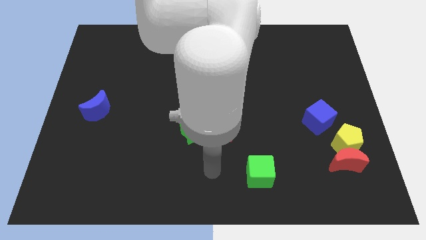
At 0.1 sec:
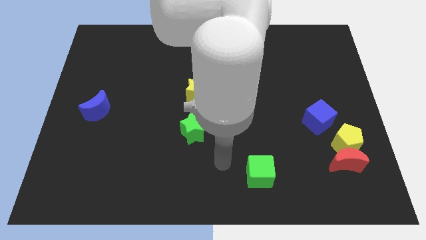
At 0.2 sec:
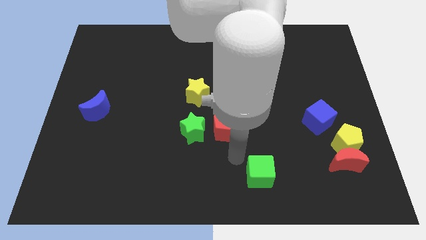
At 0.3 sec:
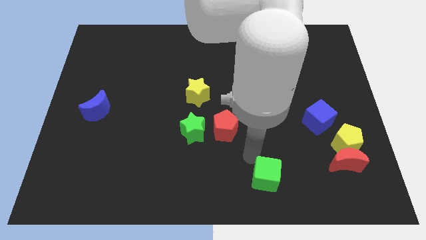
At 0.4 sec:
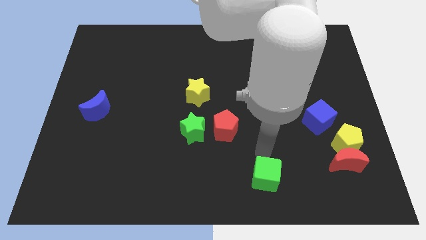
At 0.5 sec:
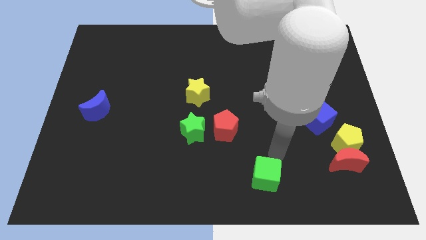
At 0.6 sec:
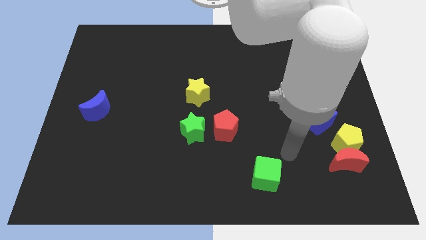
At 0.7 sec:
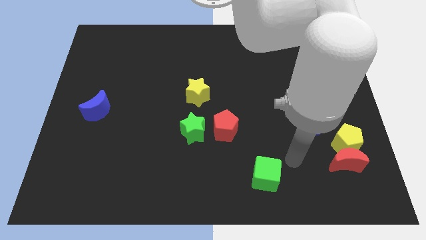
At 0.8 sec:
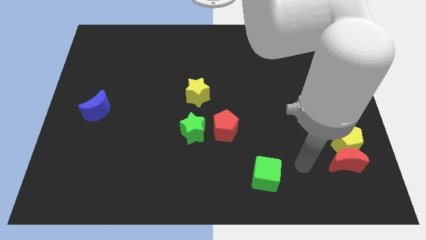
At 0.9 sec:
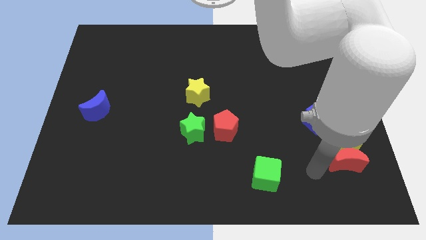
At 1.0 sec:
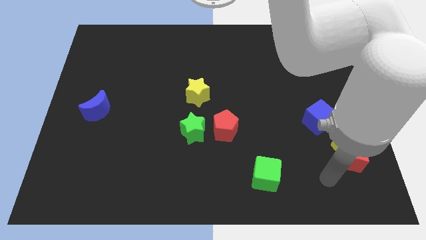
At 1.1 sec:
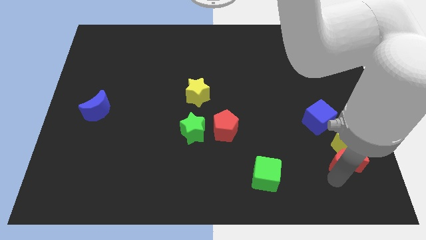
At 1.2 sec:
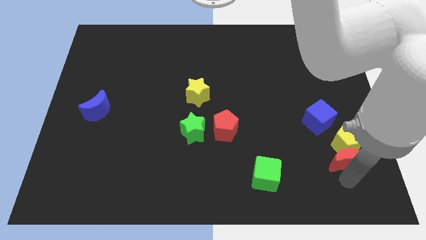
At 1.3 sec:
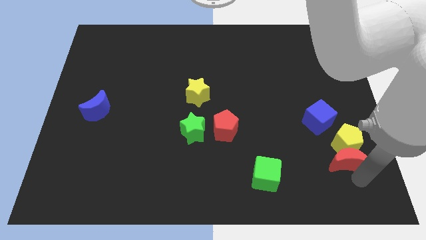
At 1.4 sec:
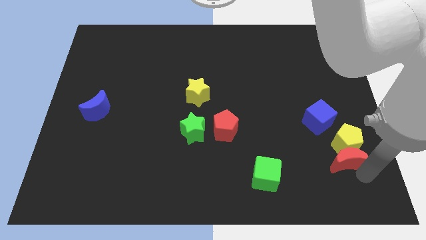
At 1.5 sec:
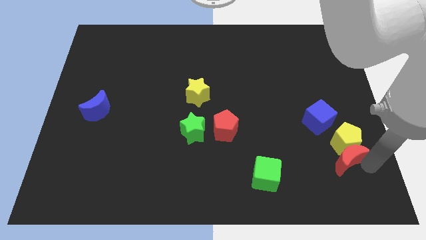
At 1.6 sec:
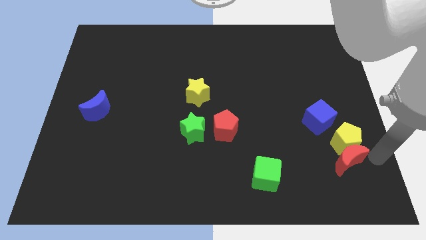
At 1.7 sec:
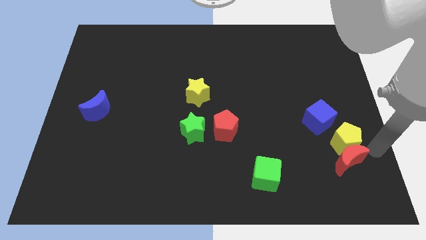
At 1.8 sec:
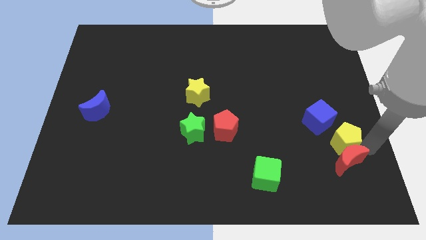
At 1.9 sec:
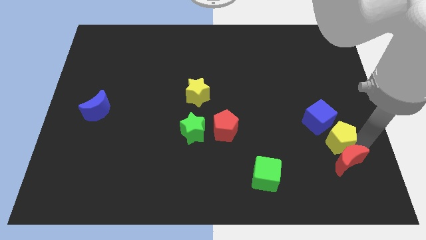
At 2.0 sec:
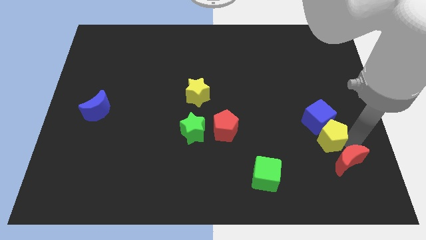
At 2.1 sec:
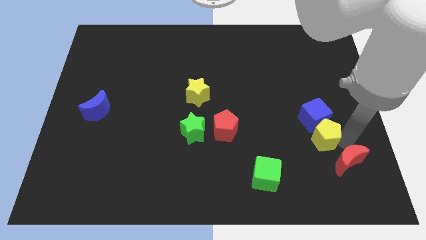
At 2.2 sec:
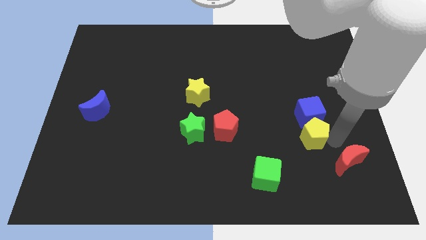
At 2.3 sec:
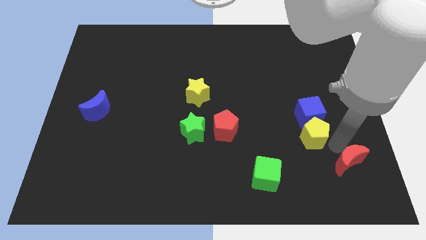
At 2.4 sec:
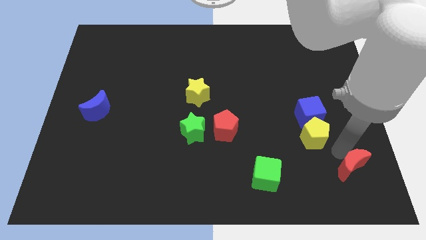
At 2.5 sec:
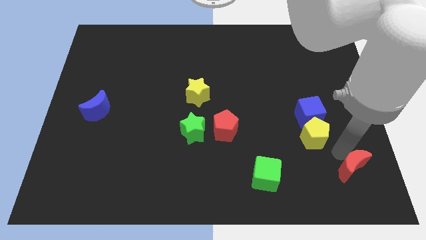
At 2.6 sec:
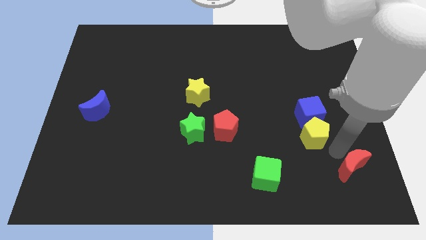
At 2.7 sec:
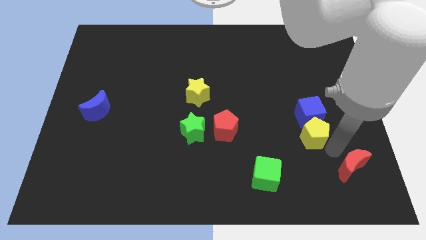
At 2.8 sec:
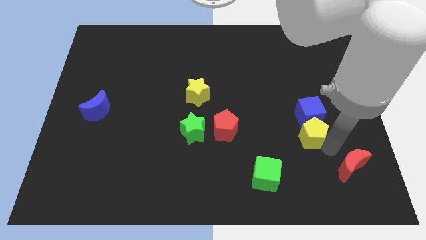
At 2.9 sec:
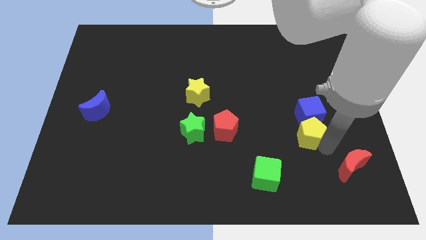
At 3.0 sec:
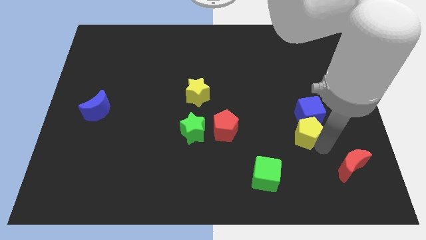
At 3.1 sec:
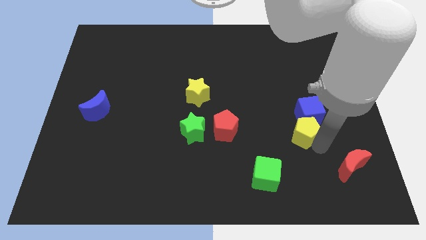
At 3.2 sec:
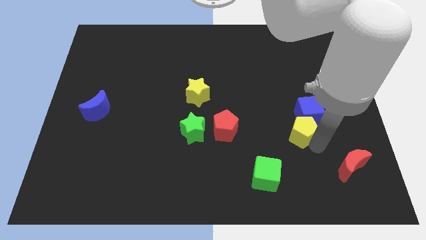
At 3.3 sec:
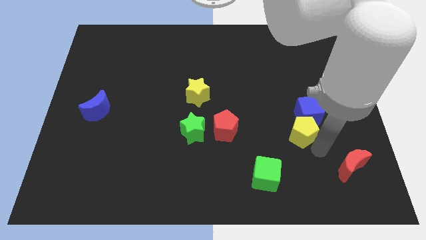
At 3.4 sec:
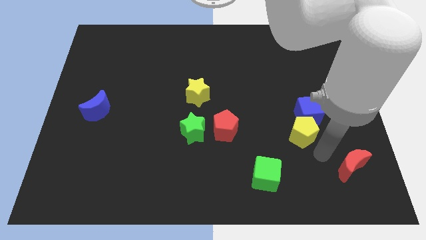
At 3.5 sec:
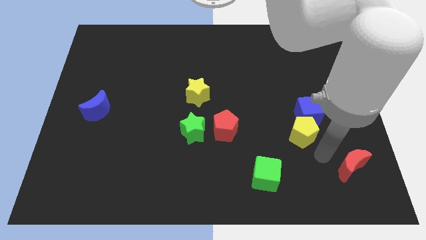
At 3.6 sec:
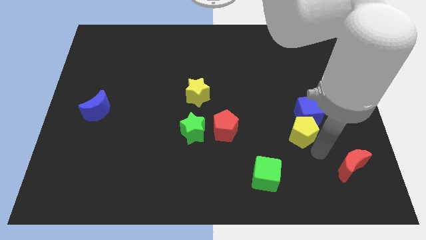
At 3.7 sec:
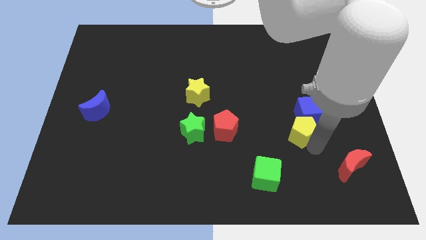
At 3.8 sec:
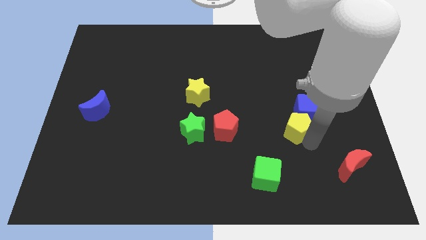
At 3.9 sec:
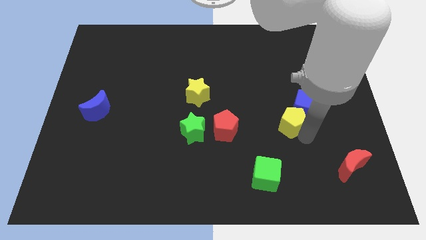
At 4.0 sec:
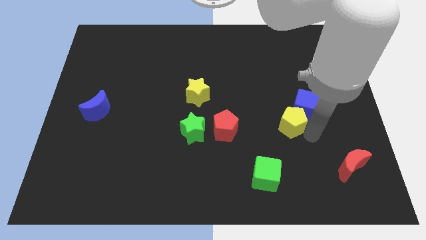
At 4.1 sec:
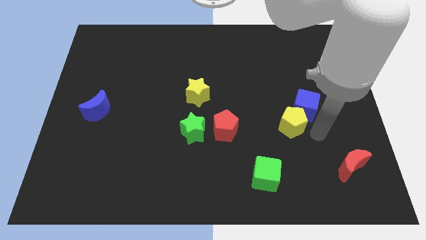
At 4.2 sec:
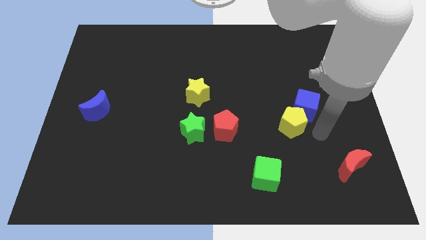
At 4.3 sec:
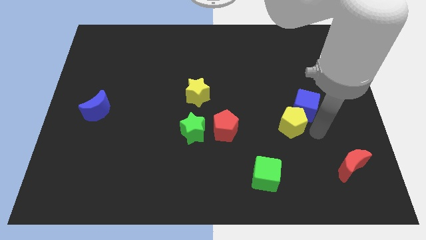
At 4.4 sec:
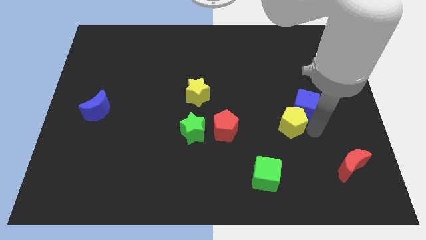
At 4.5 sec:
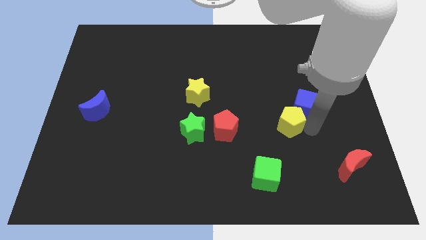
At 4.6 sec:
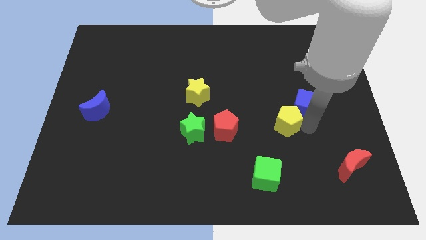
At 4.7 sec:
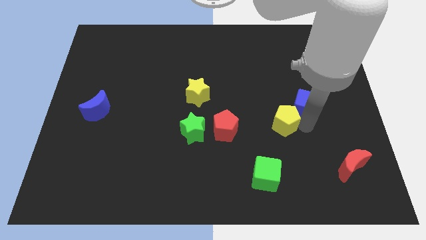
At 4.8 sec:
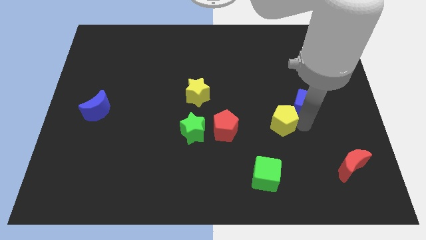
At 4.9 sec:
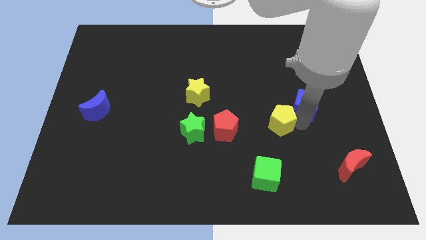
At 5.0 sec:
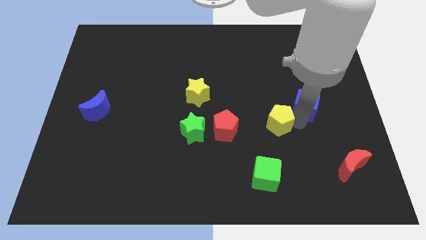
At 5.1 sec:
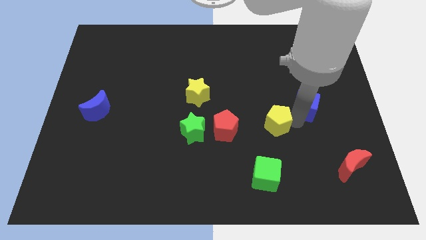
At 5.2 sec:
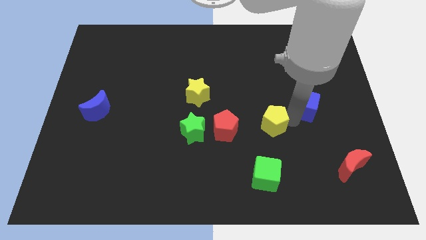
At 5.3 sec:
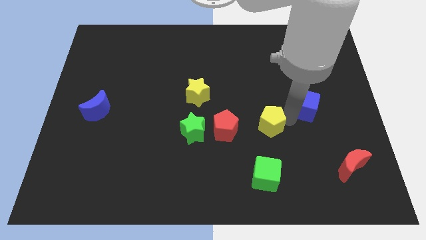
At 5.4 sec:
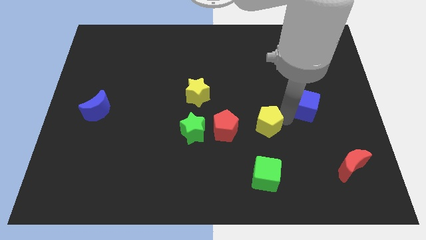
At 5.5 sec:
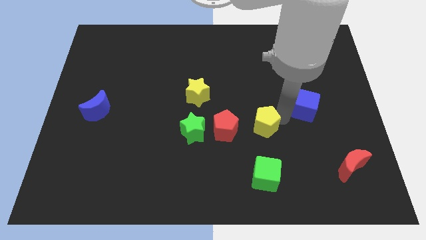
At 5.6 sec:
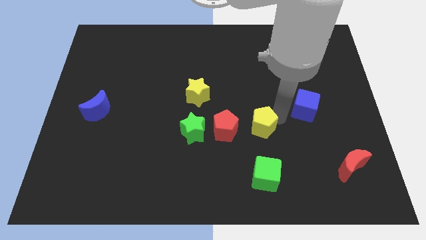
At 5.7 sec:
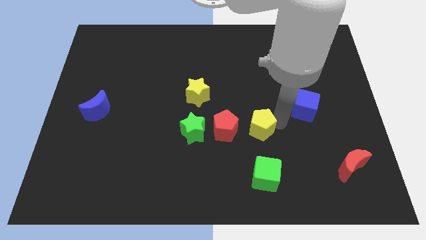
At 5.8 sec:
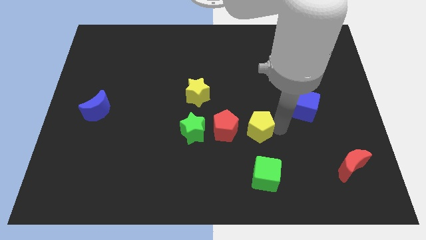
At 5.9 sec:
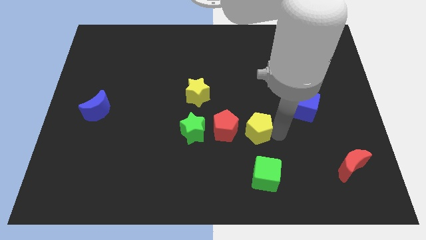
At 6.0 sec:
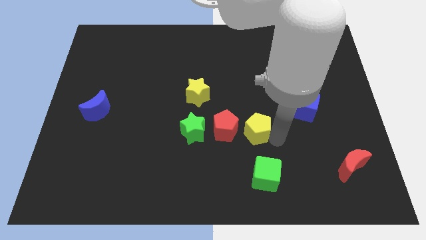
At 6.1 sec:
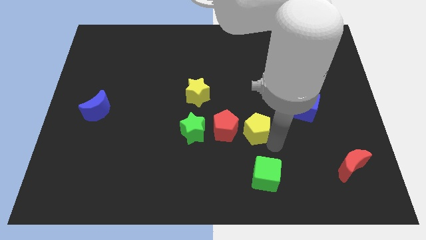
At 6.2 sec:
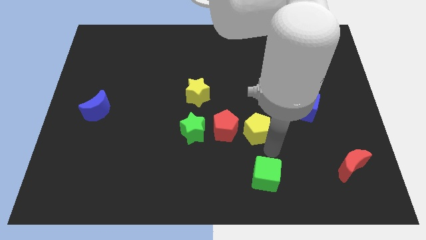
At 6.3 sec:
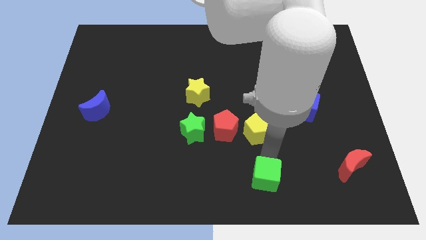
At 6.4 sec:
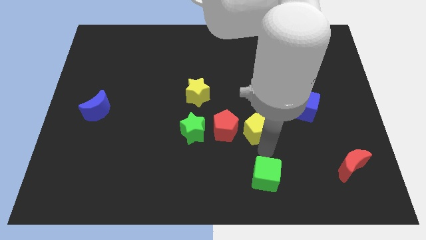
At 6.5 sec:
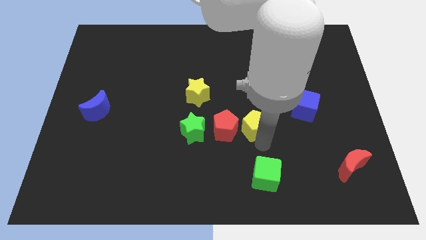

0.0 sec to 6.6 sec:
slide the yellow pentagon to the middle of the board
